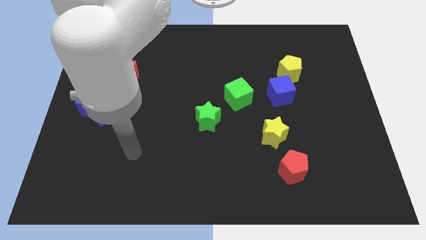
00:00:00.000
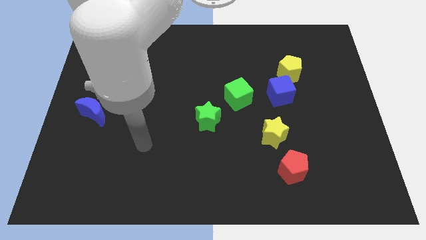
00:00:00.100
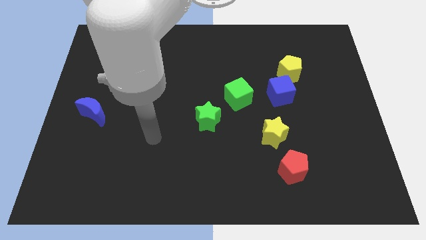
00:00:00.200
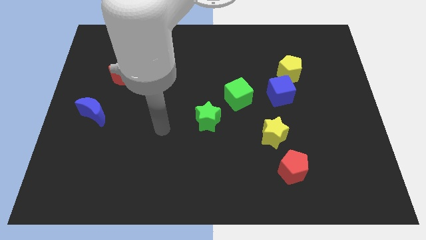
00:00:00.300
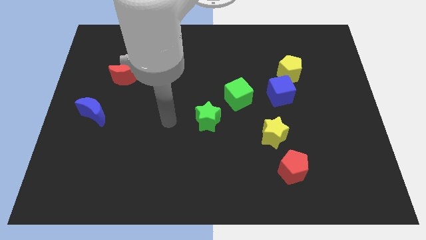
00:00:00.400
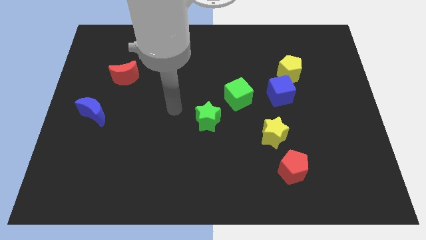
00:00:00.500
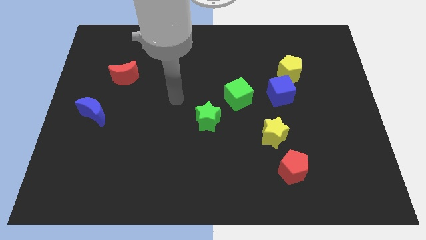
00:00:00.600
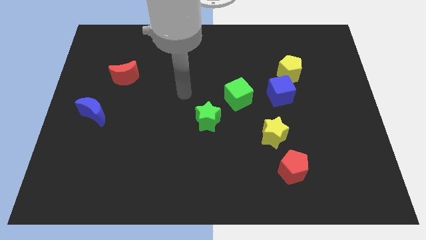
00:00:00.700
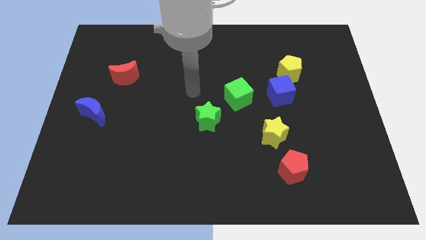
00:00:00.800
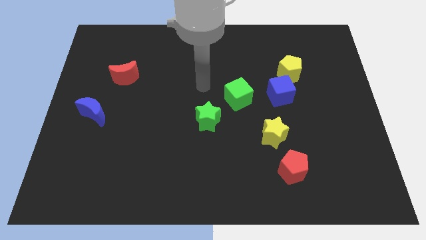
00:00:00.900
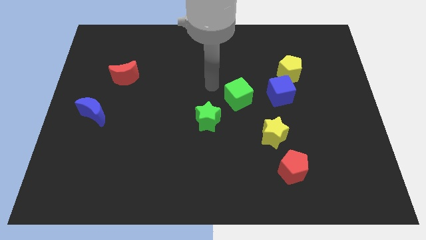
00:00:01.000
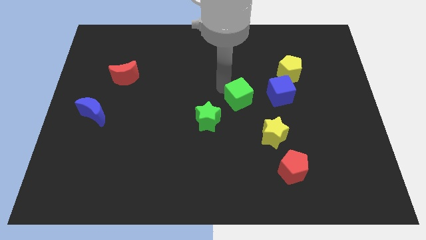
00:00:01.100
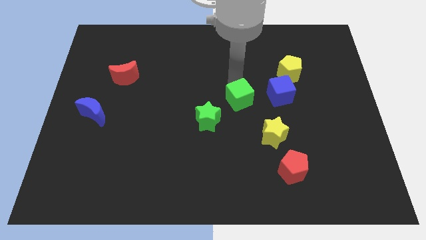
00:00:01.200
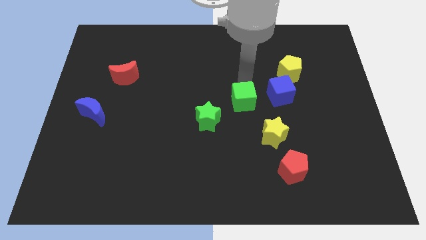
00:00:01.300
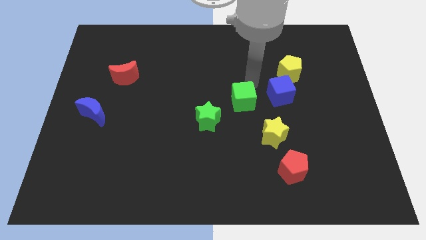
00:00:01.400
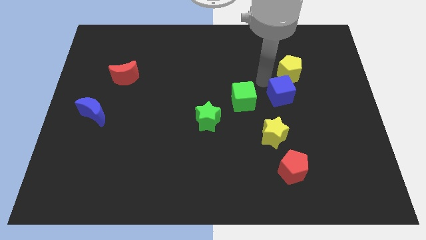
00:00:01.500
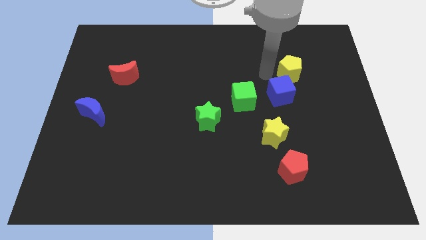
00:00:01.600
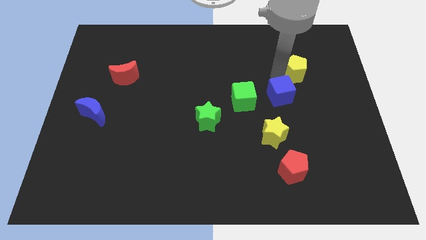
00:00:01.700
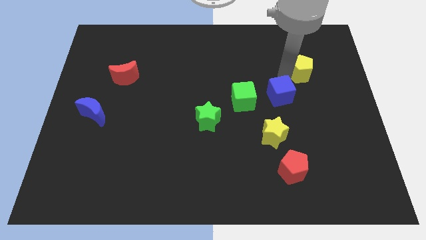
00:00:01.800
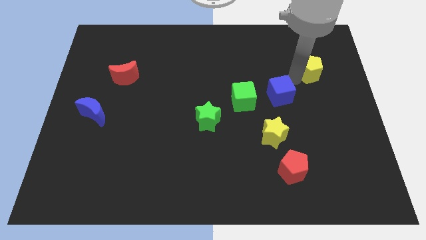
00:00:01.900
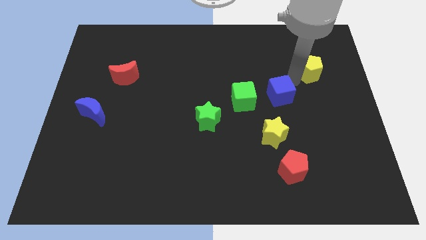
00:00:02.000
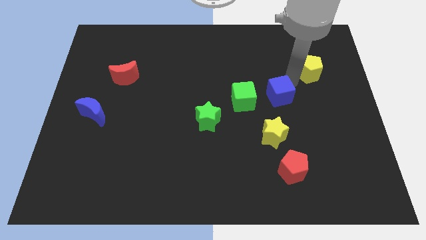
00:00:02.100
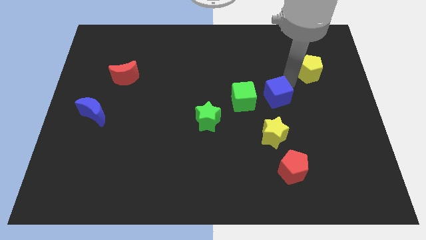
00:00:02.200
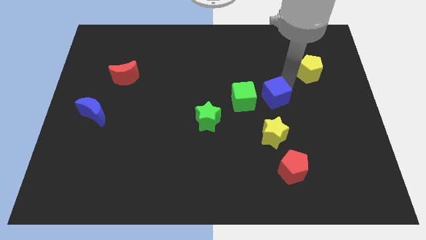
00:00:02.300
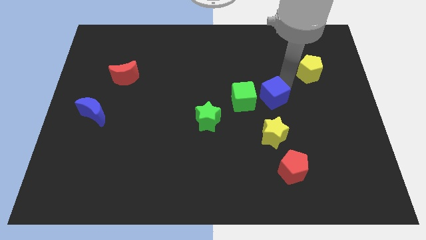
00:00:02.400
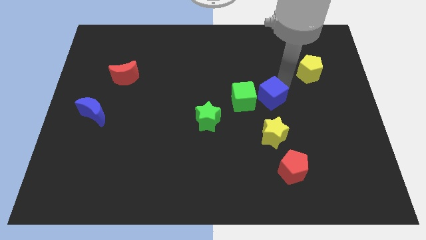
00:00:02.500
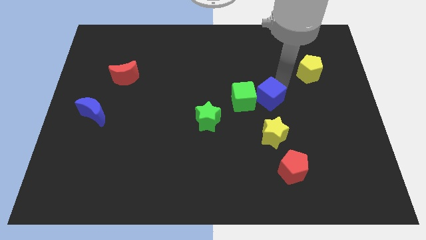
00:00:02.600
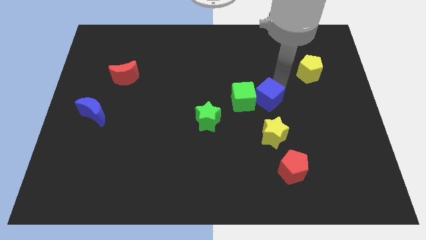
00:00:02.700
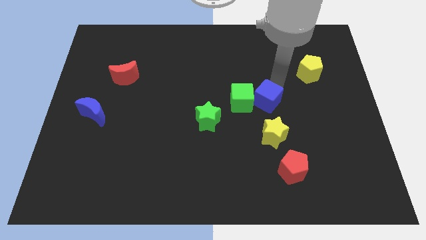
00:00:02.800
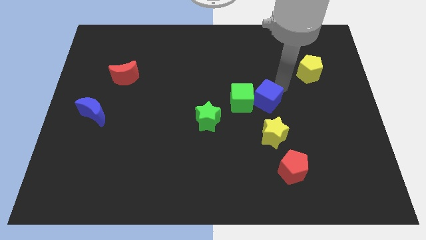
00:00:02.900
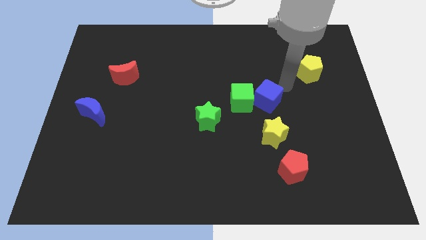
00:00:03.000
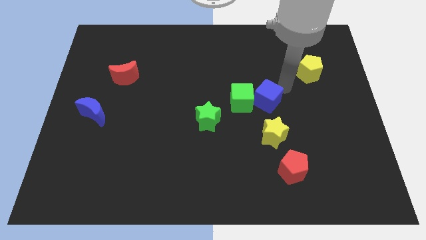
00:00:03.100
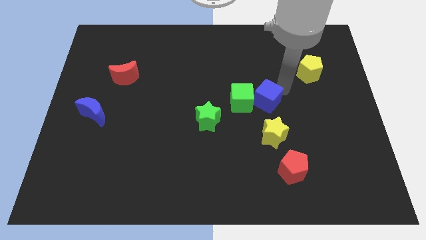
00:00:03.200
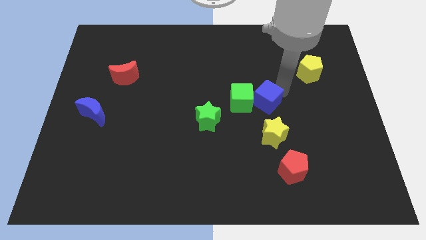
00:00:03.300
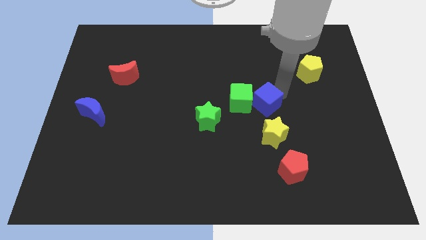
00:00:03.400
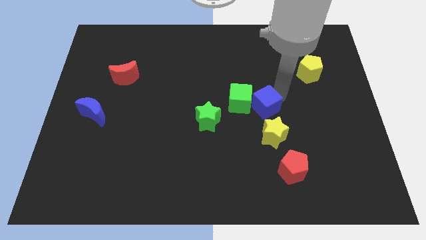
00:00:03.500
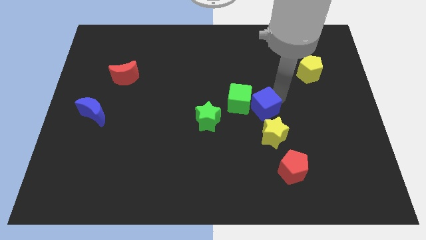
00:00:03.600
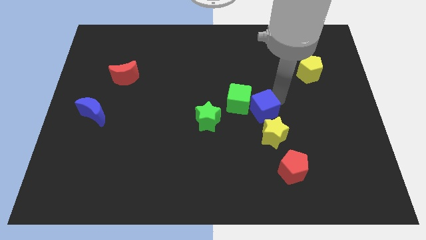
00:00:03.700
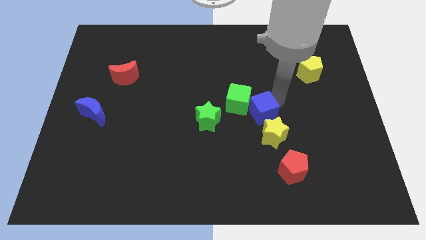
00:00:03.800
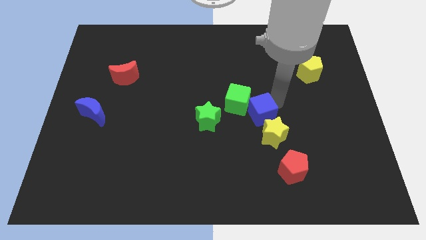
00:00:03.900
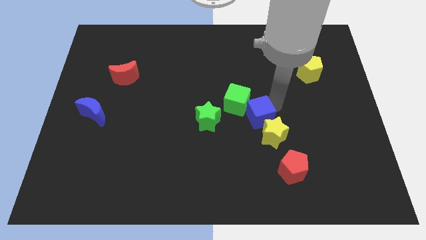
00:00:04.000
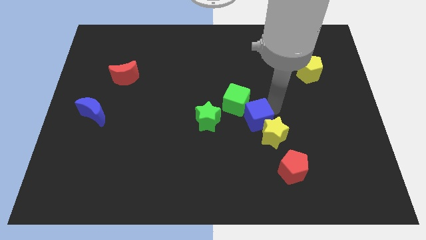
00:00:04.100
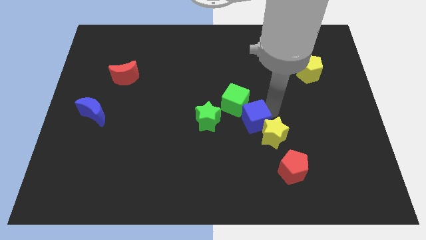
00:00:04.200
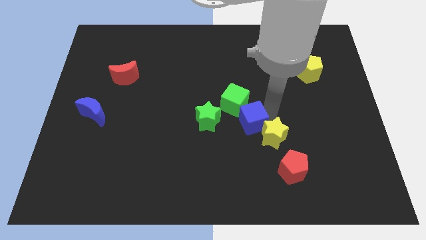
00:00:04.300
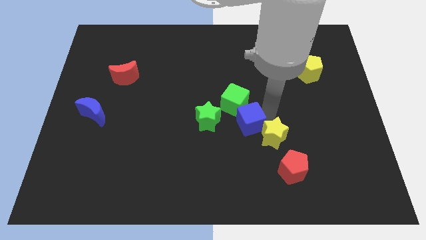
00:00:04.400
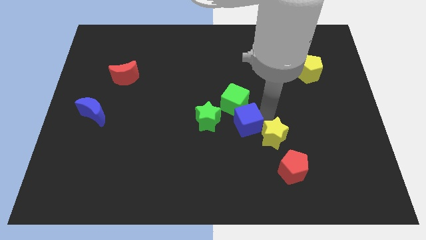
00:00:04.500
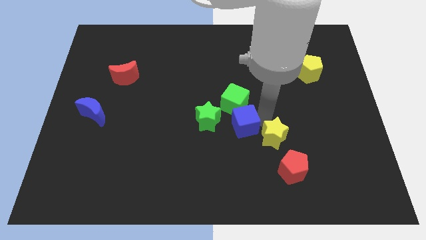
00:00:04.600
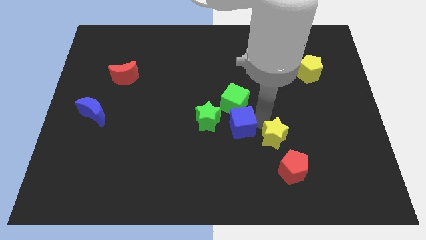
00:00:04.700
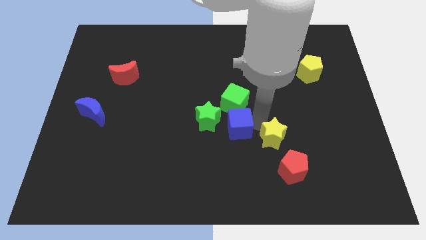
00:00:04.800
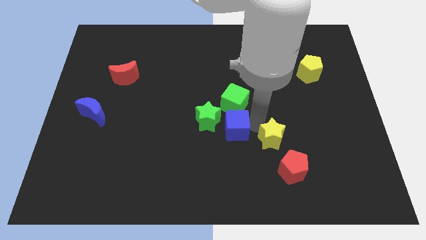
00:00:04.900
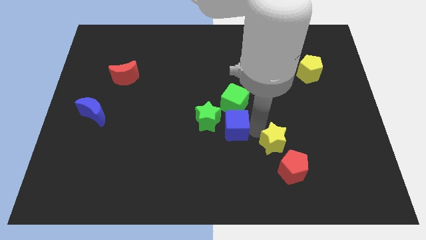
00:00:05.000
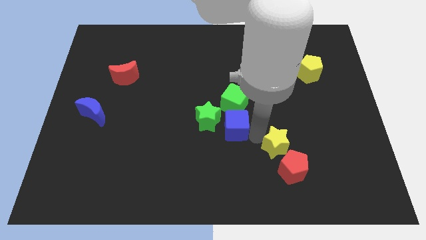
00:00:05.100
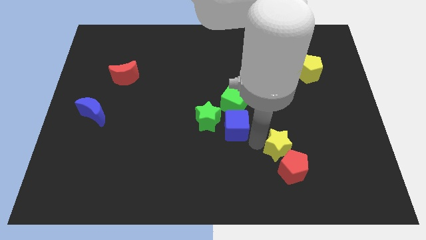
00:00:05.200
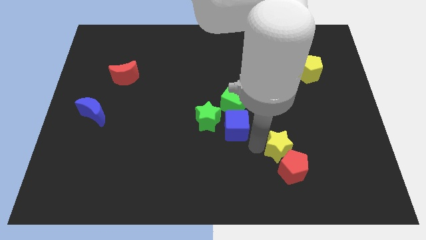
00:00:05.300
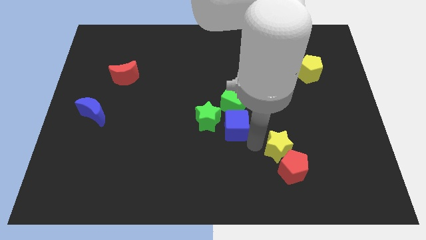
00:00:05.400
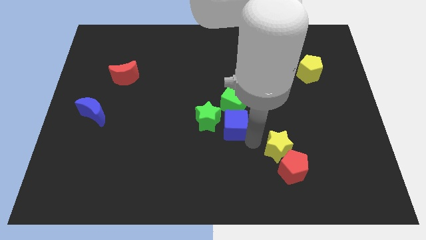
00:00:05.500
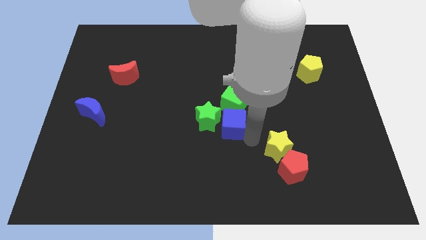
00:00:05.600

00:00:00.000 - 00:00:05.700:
push the blue cube to the green star

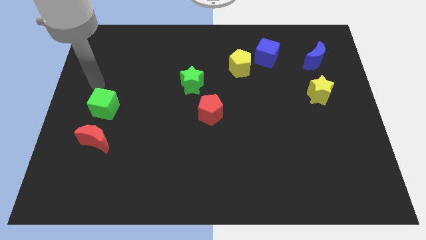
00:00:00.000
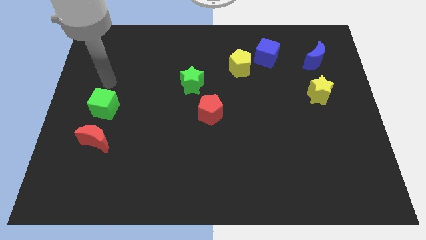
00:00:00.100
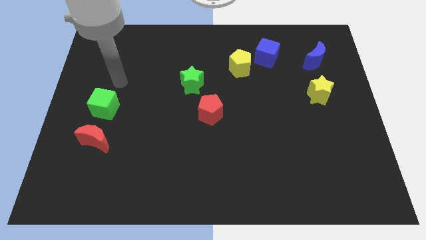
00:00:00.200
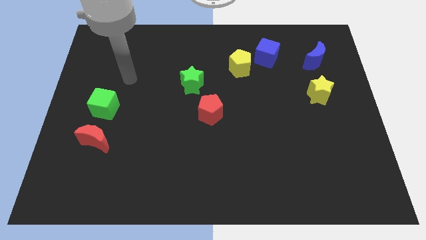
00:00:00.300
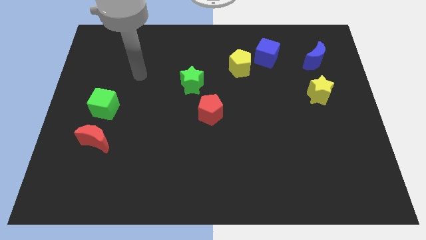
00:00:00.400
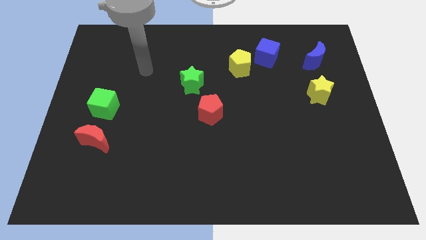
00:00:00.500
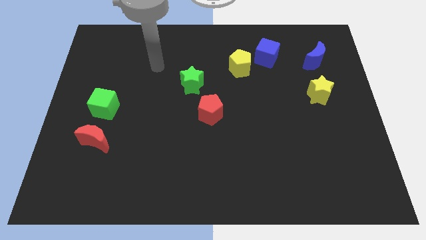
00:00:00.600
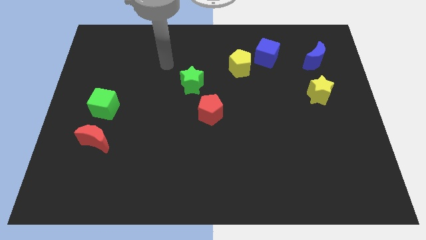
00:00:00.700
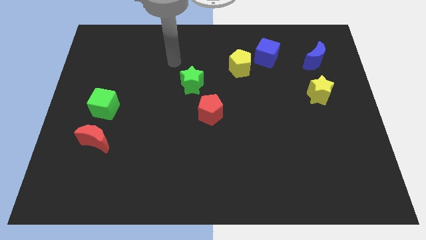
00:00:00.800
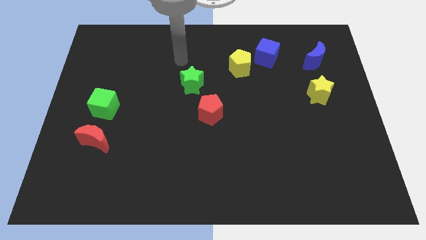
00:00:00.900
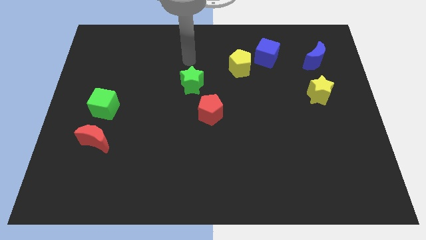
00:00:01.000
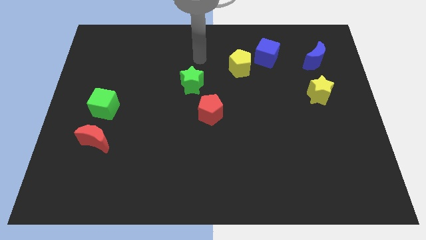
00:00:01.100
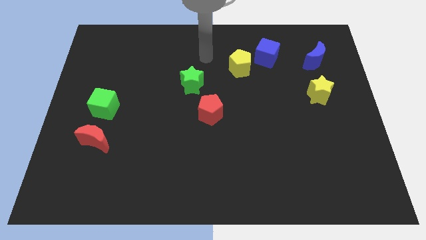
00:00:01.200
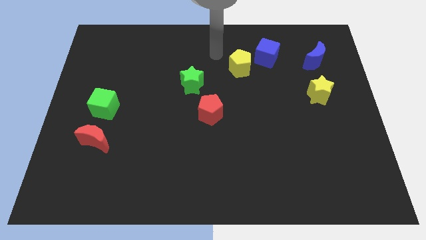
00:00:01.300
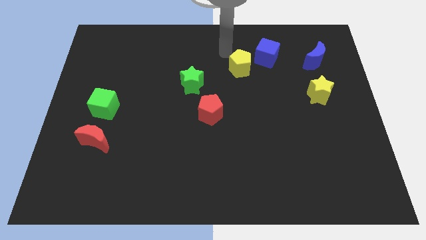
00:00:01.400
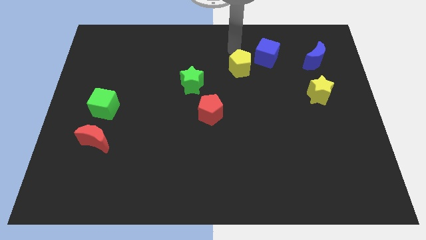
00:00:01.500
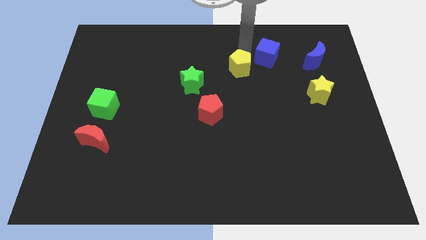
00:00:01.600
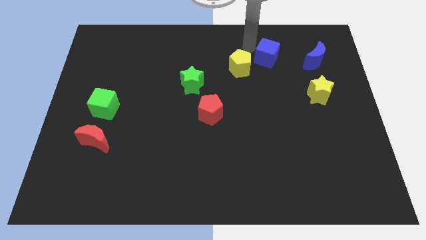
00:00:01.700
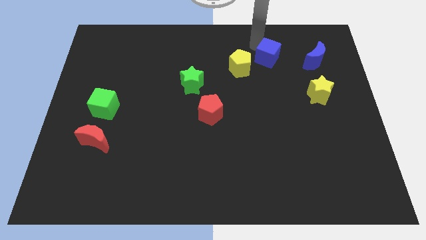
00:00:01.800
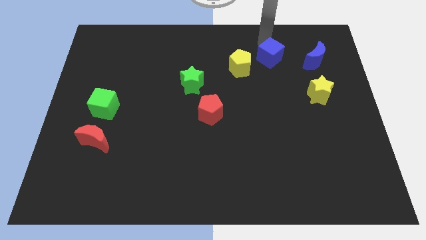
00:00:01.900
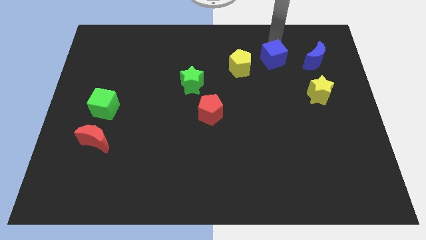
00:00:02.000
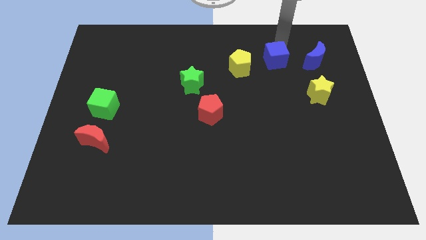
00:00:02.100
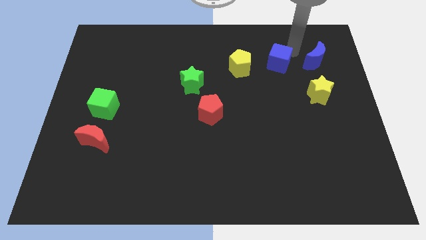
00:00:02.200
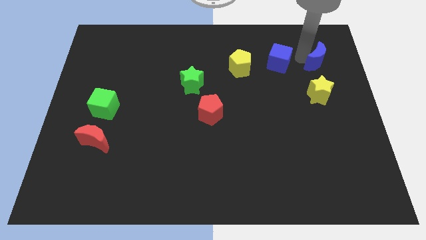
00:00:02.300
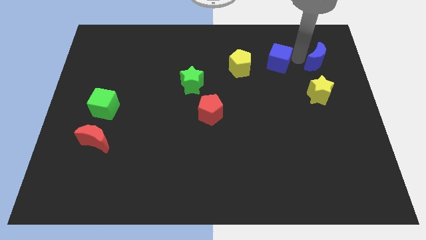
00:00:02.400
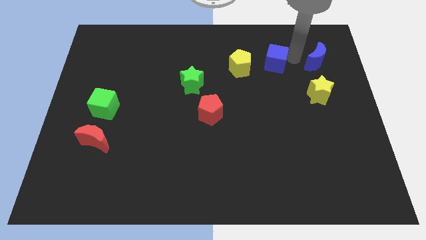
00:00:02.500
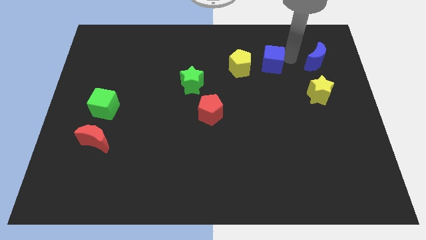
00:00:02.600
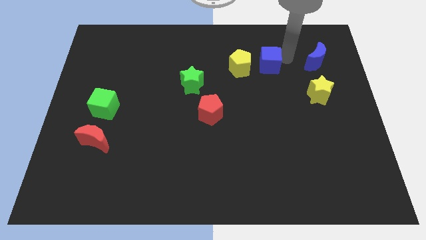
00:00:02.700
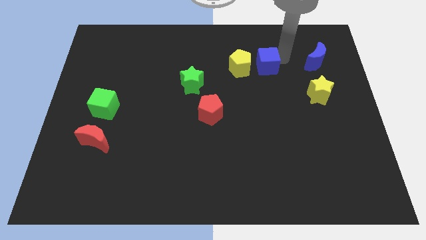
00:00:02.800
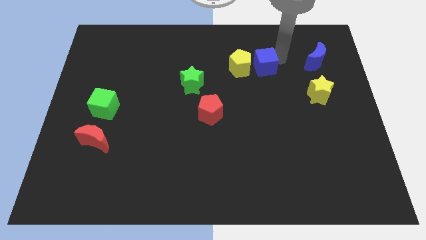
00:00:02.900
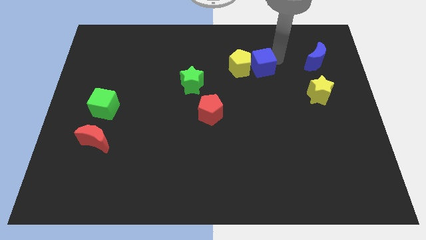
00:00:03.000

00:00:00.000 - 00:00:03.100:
push the blue cube close to the yellow pentagon
